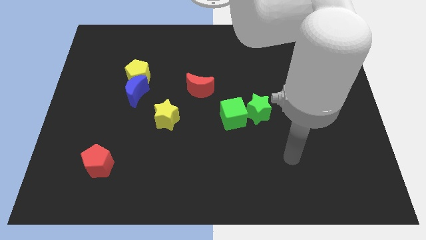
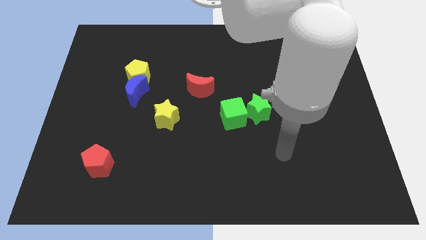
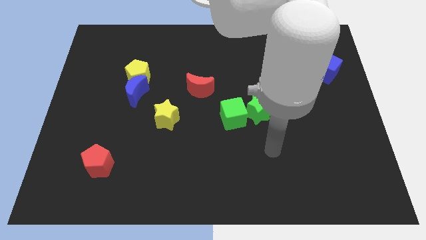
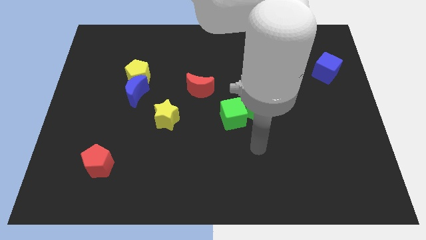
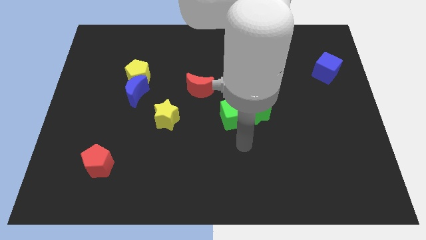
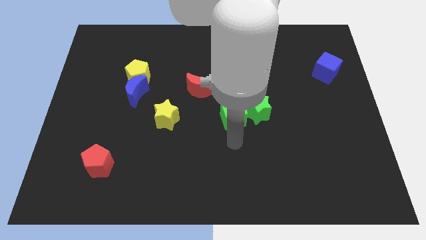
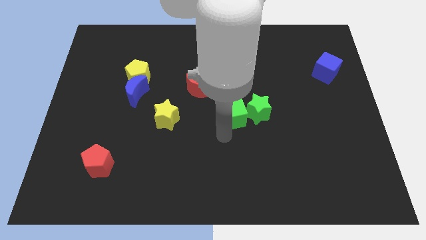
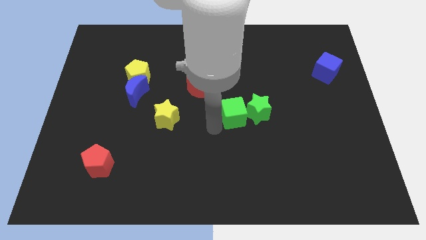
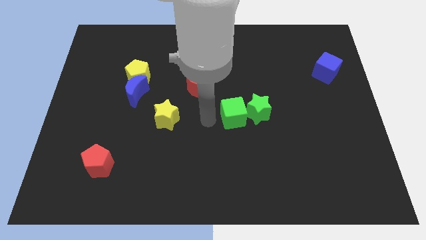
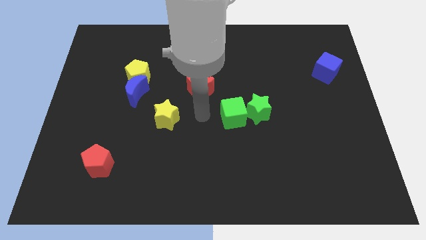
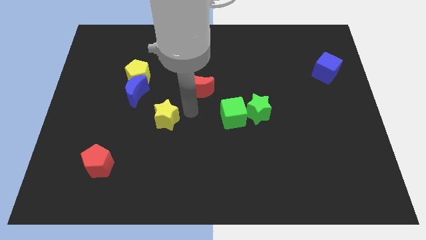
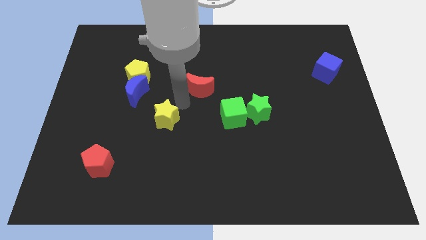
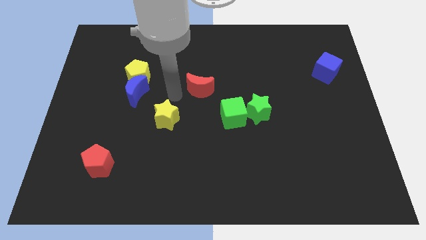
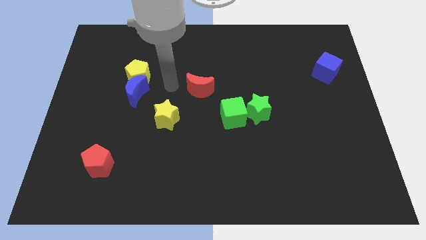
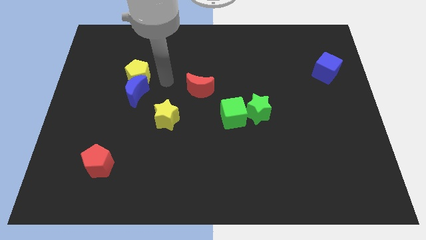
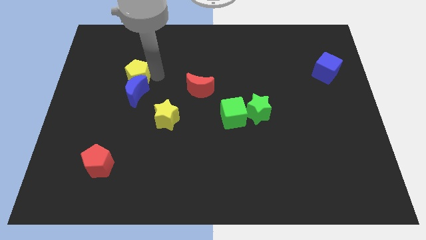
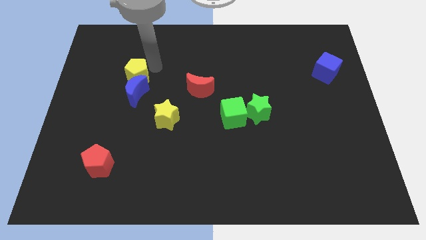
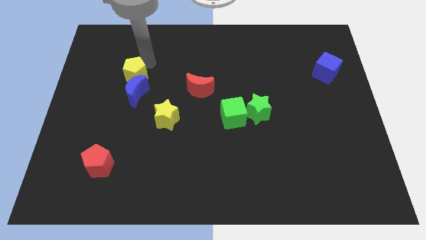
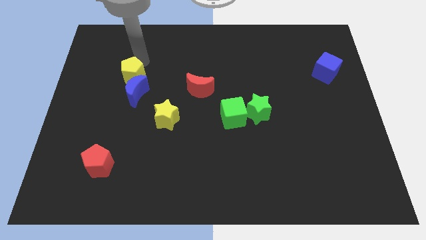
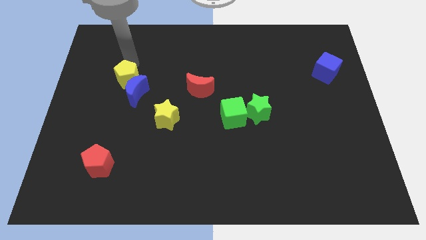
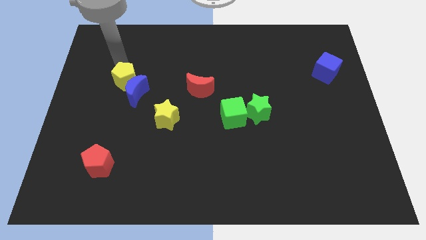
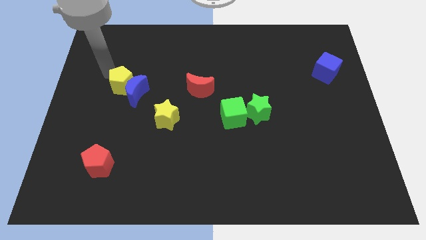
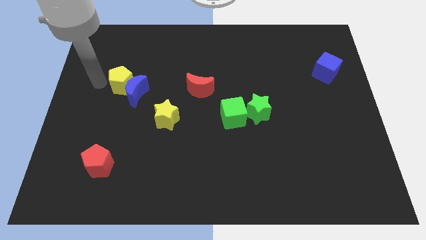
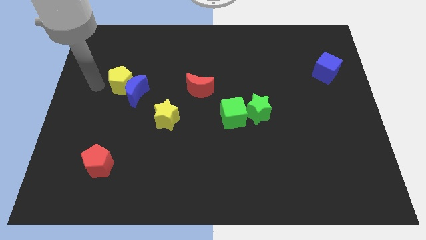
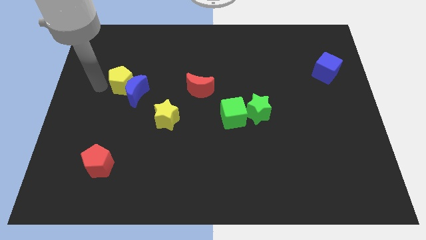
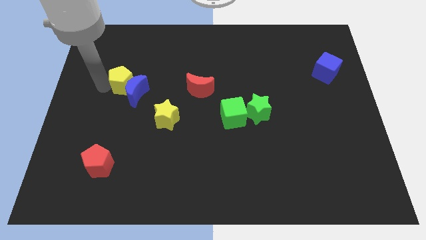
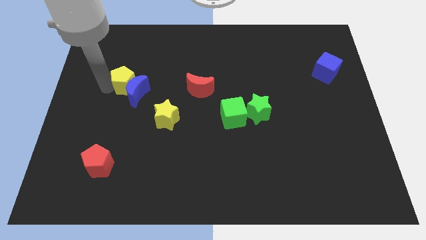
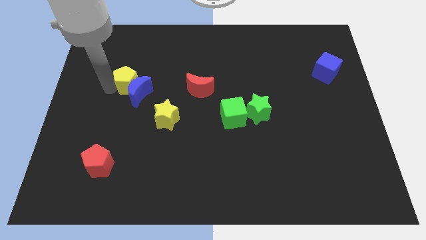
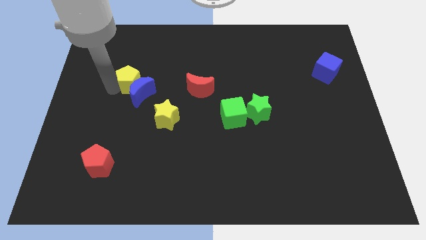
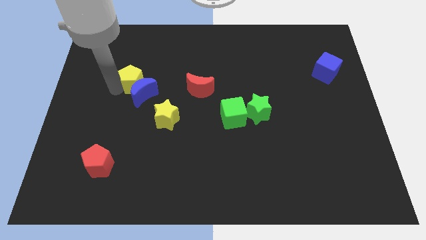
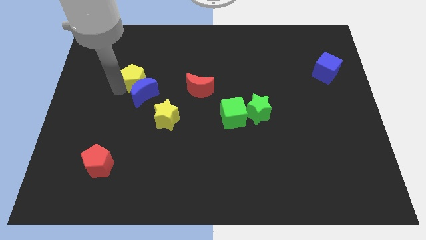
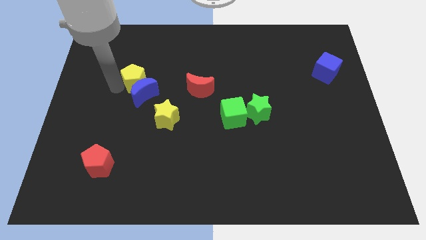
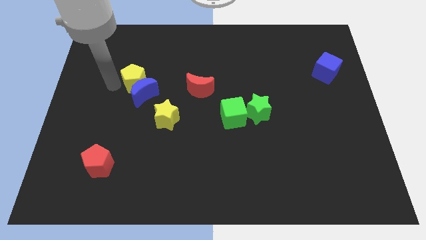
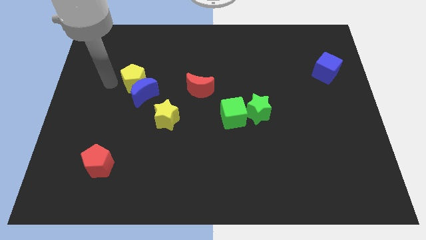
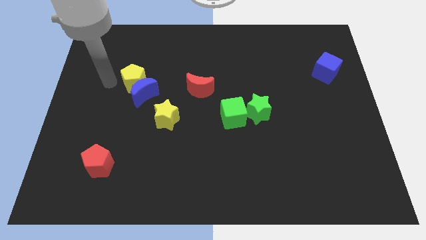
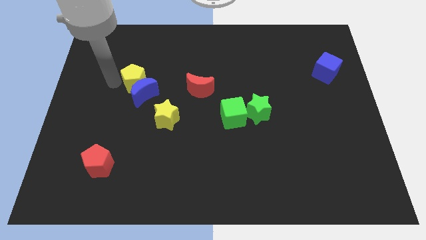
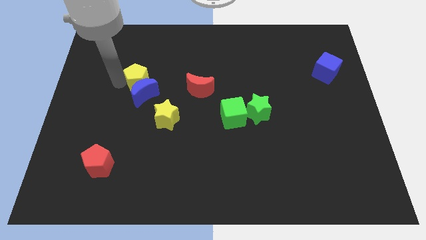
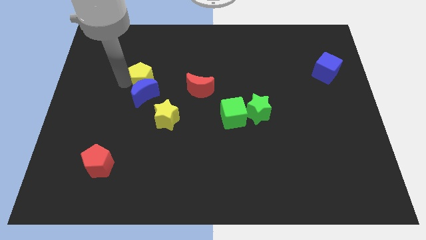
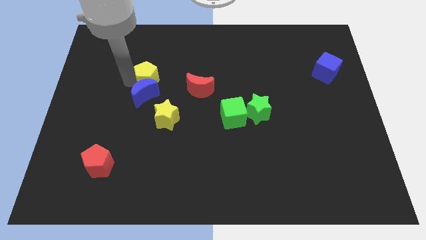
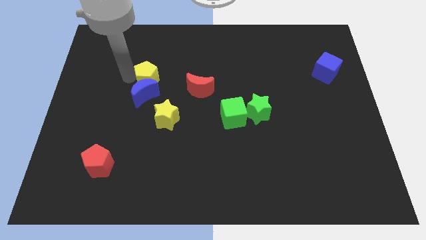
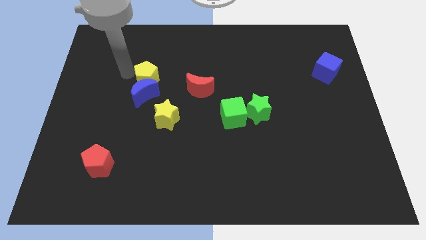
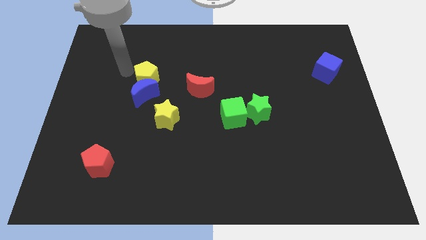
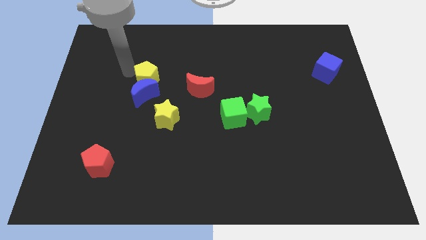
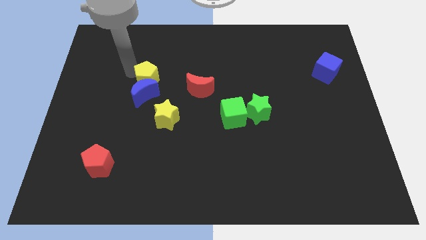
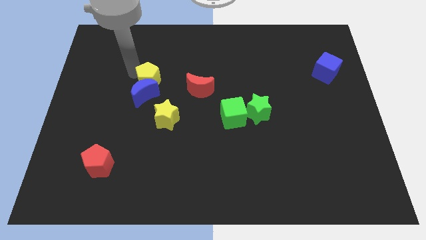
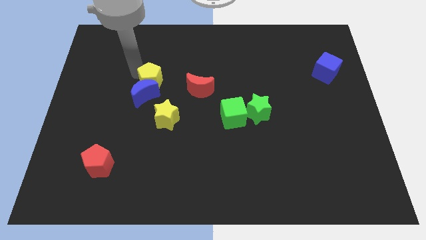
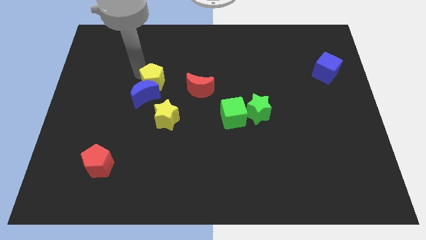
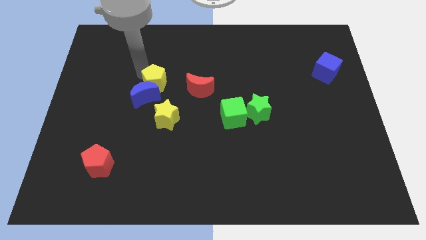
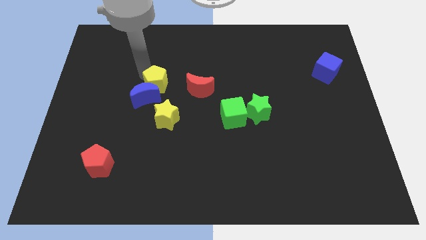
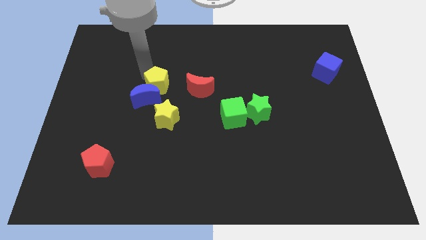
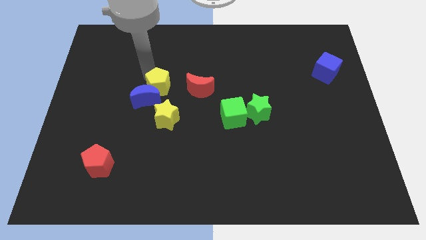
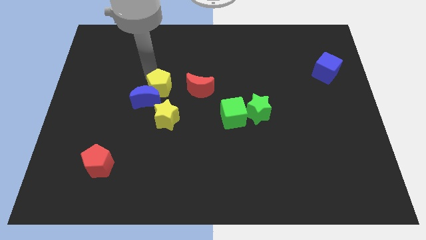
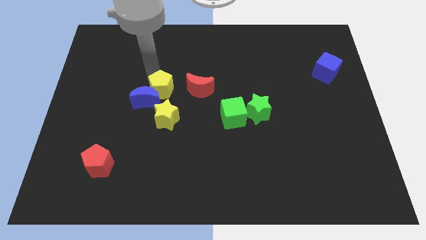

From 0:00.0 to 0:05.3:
slightly slide the yellow pentagon downwards and then right

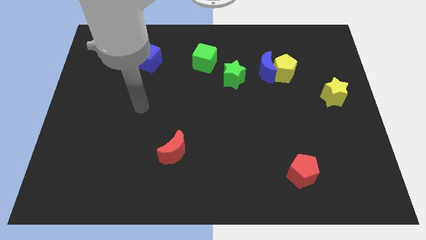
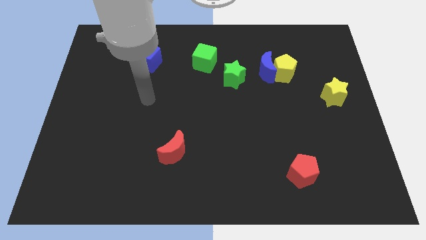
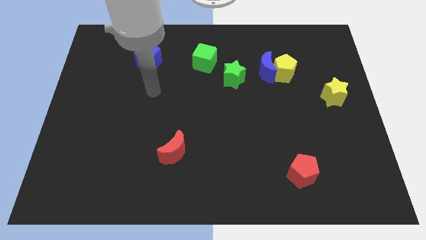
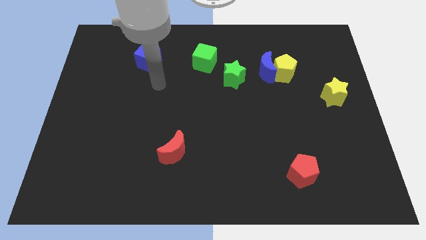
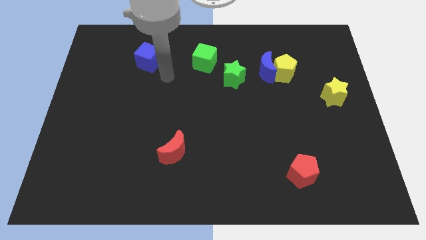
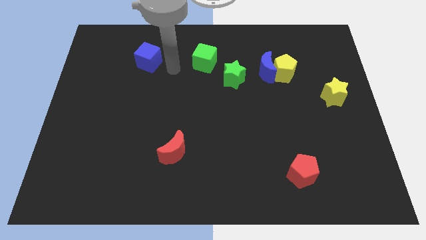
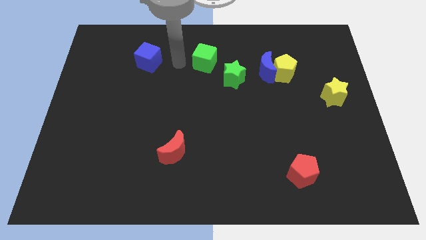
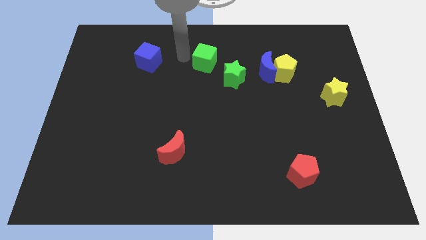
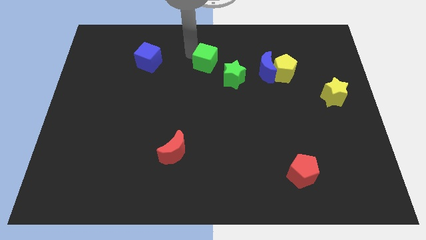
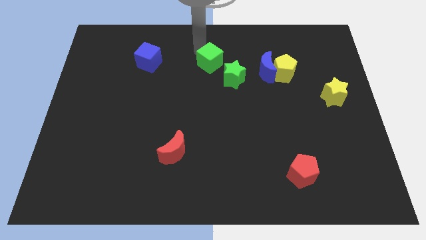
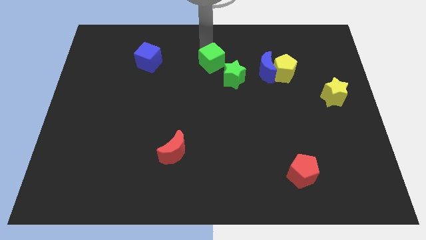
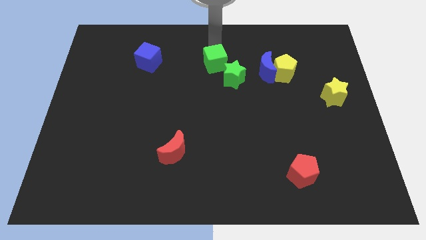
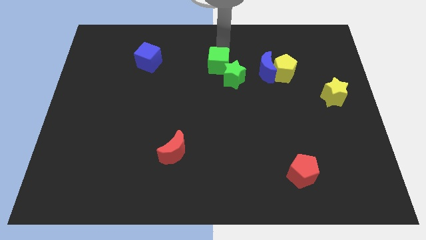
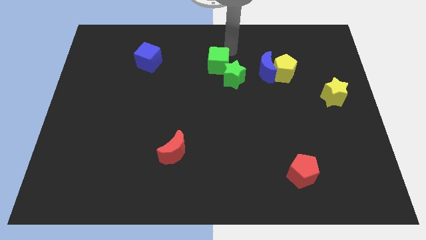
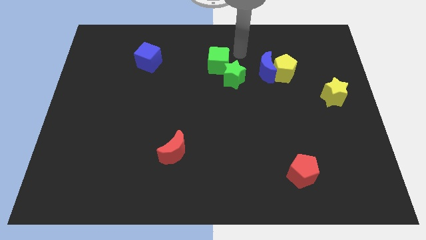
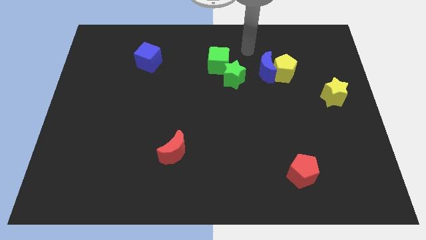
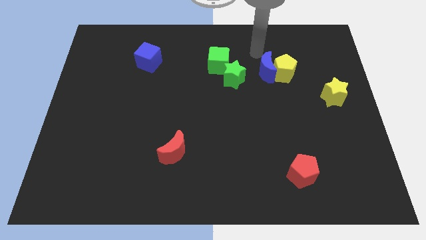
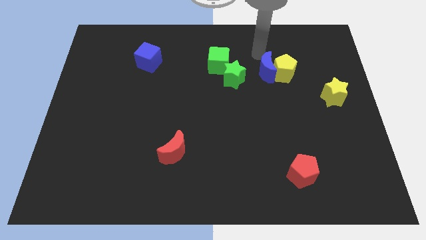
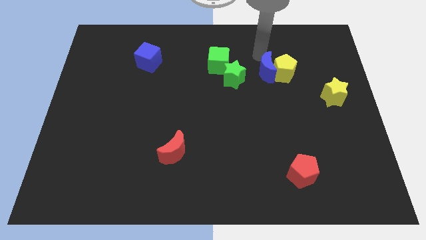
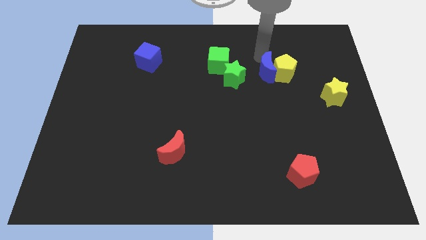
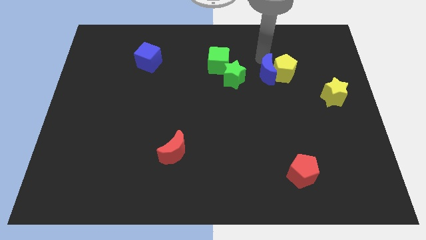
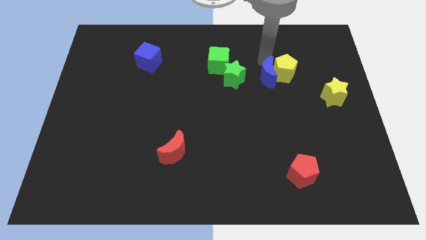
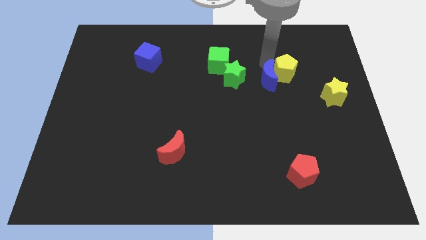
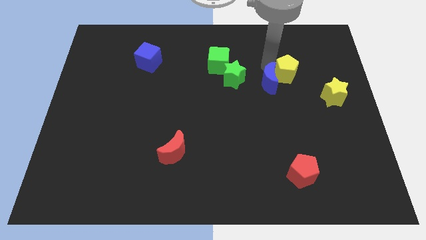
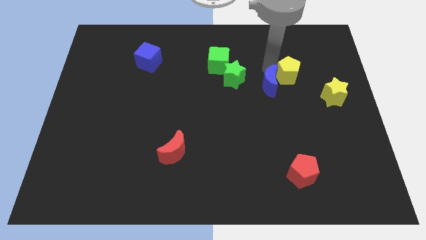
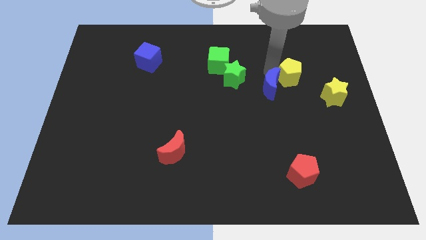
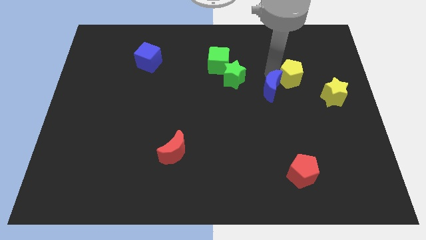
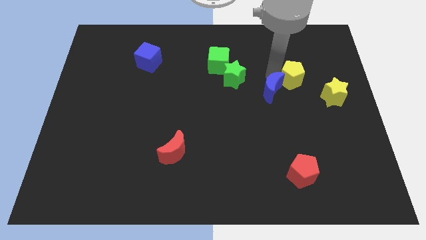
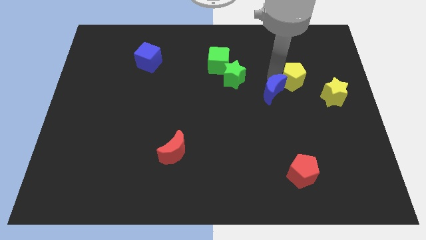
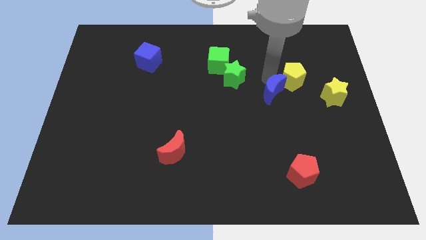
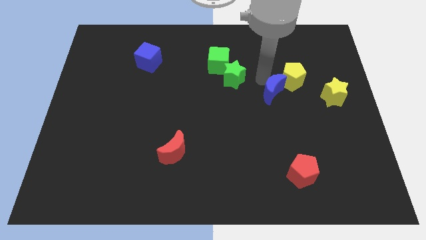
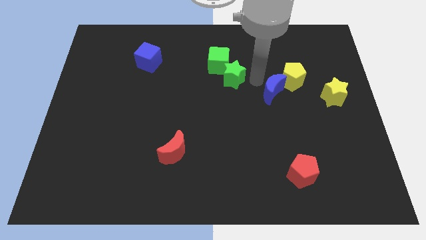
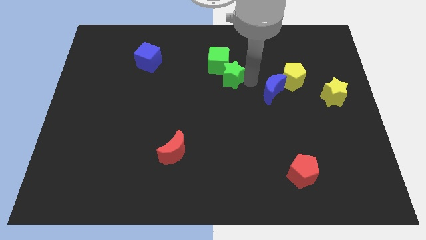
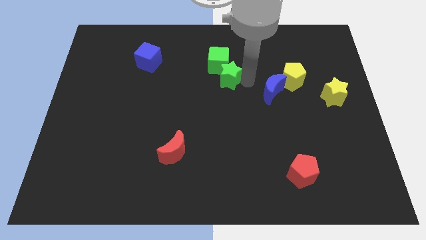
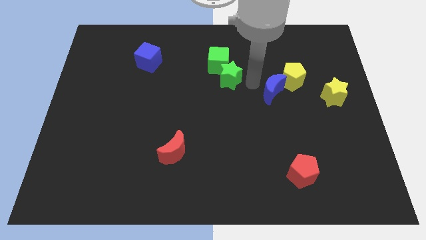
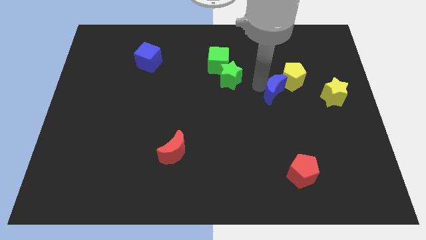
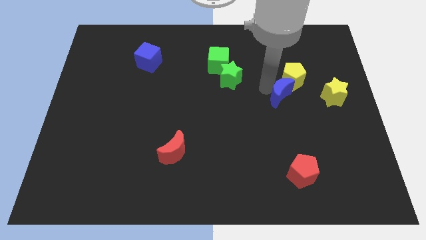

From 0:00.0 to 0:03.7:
slide the blue moon downwards and right a bit
